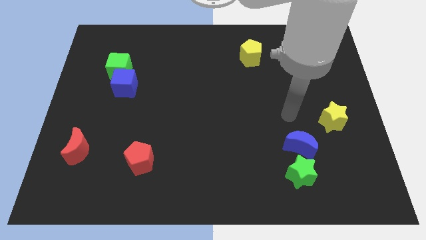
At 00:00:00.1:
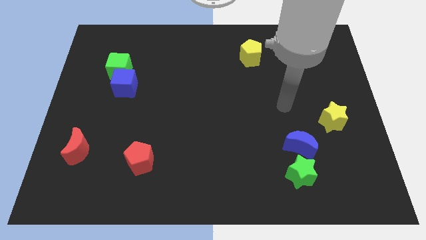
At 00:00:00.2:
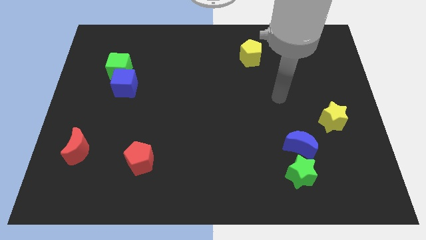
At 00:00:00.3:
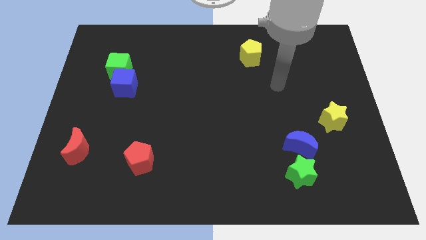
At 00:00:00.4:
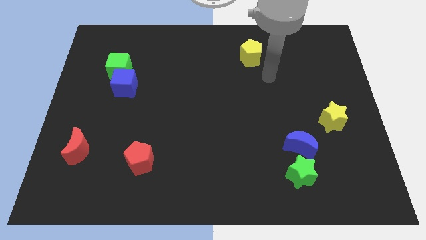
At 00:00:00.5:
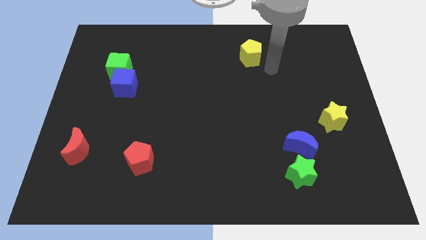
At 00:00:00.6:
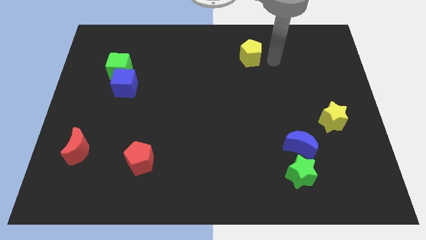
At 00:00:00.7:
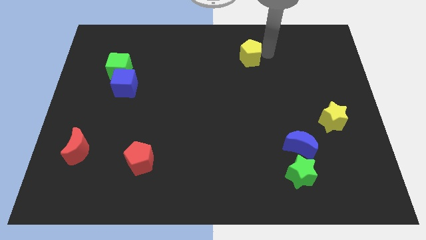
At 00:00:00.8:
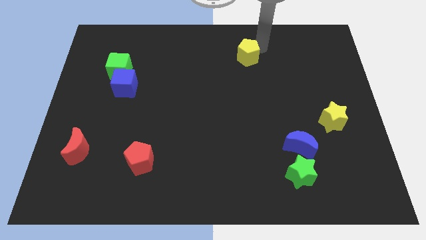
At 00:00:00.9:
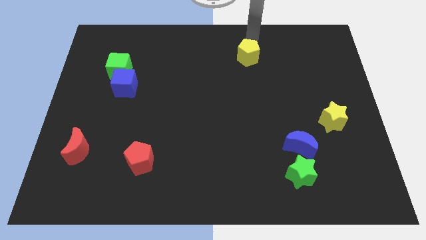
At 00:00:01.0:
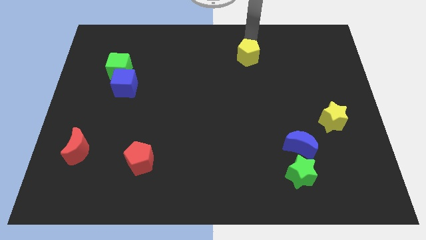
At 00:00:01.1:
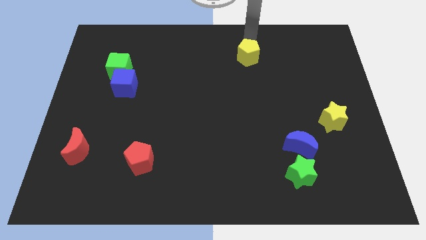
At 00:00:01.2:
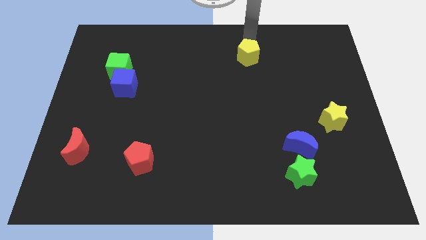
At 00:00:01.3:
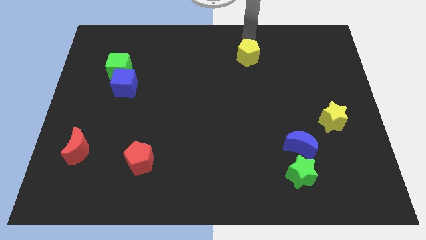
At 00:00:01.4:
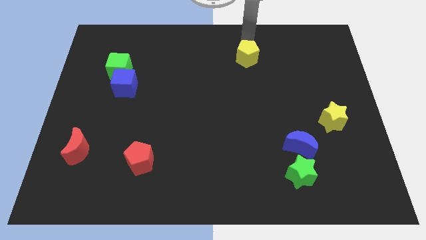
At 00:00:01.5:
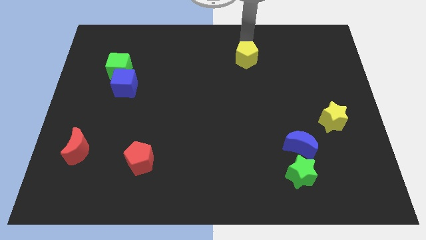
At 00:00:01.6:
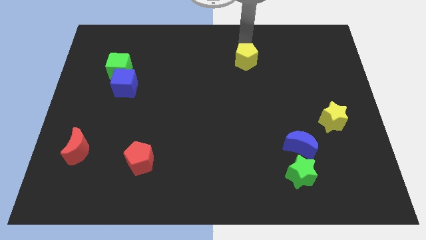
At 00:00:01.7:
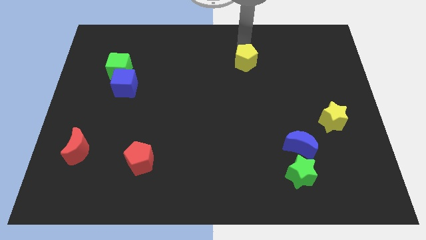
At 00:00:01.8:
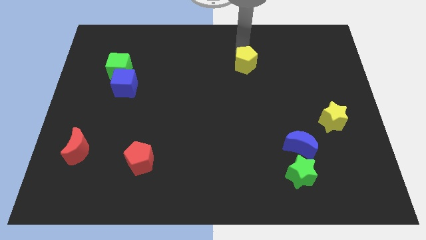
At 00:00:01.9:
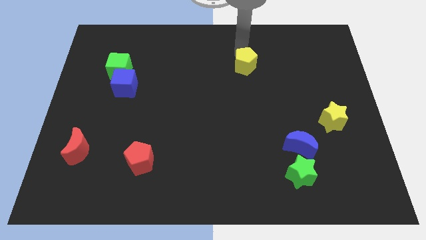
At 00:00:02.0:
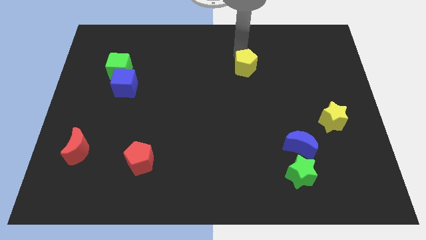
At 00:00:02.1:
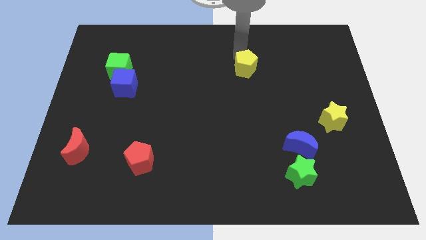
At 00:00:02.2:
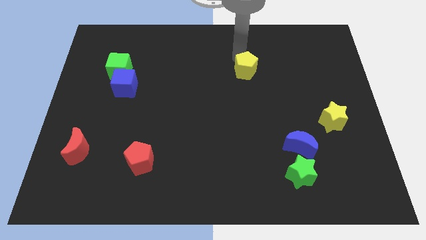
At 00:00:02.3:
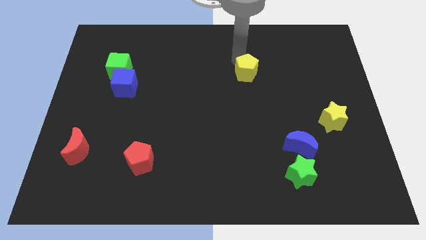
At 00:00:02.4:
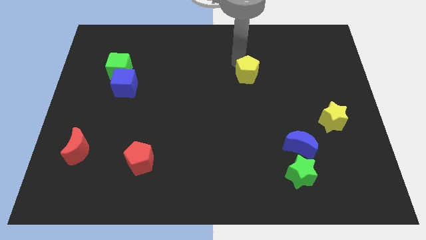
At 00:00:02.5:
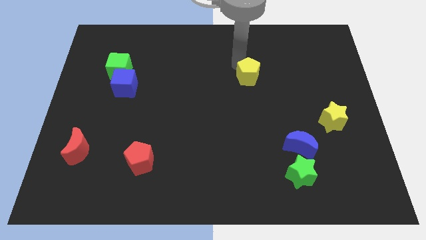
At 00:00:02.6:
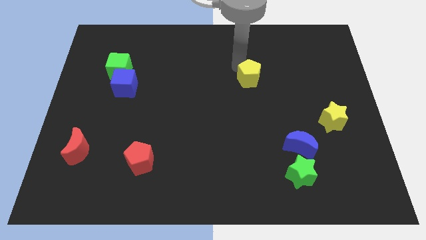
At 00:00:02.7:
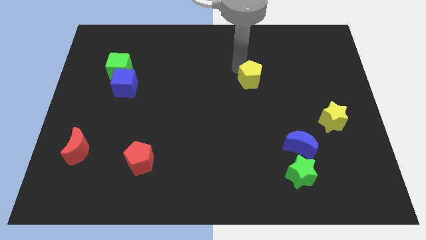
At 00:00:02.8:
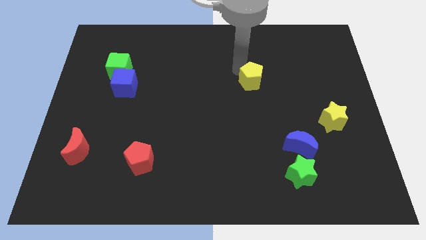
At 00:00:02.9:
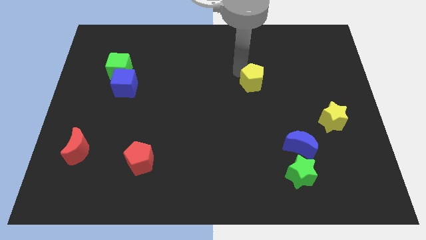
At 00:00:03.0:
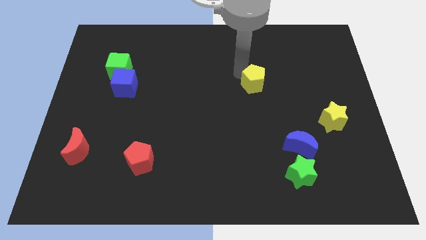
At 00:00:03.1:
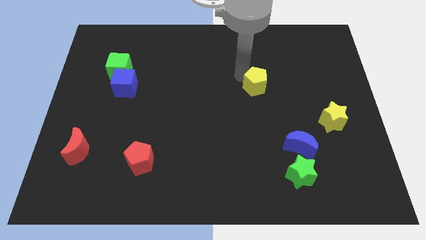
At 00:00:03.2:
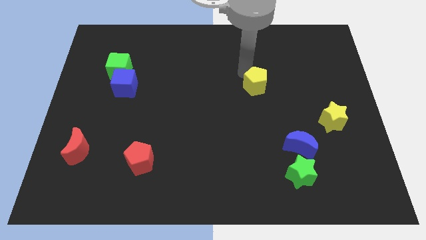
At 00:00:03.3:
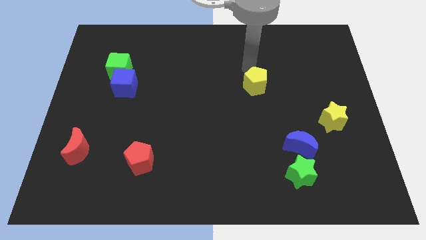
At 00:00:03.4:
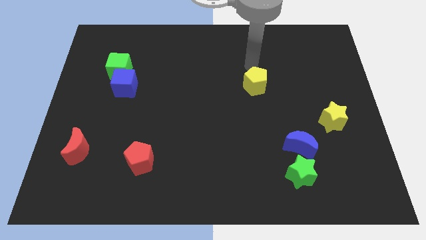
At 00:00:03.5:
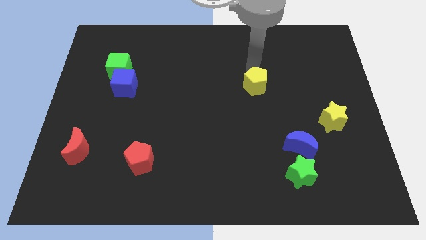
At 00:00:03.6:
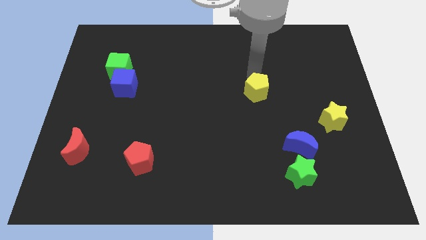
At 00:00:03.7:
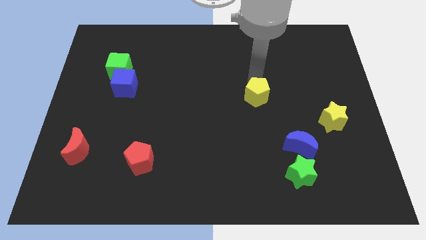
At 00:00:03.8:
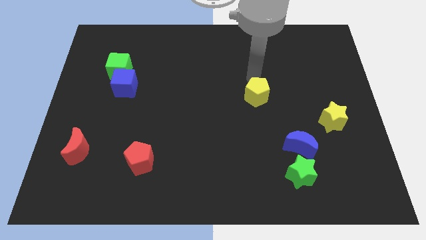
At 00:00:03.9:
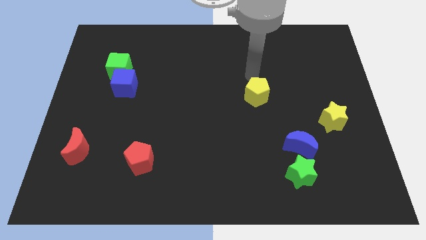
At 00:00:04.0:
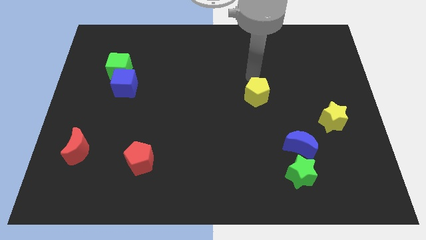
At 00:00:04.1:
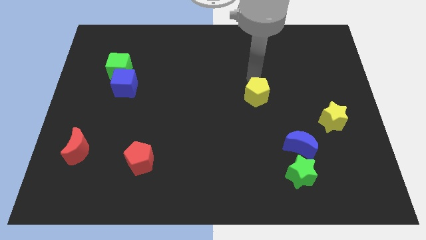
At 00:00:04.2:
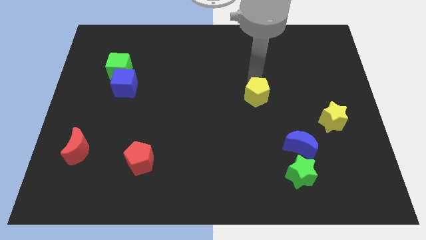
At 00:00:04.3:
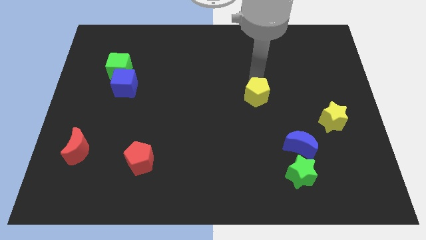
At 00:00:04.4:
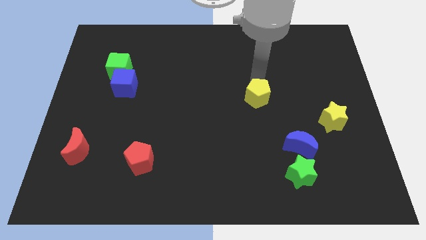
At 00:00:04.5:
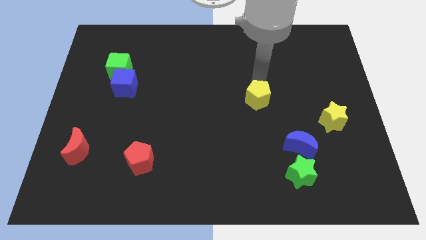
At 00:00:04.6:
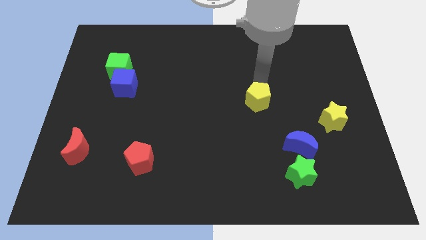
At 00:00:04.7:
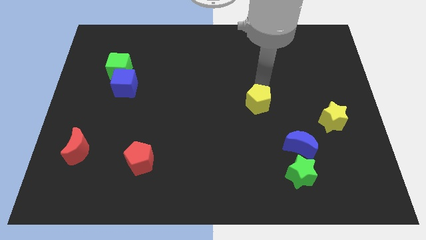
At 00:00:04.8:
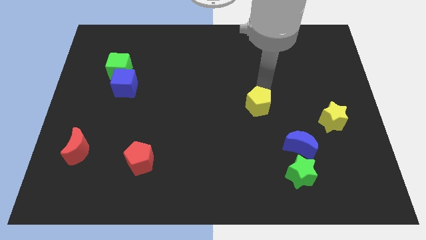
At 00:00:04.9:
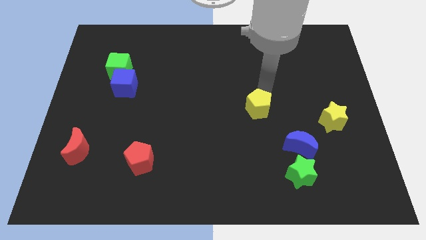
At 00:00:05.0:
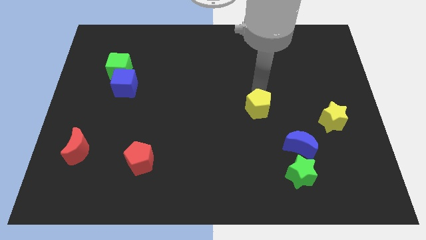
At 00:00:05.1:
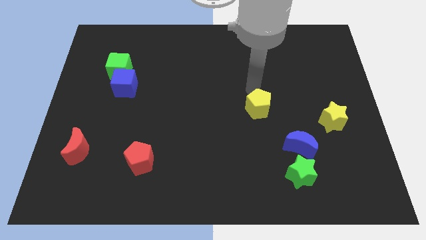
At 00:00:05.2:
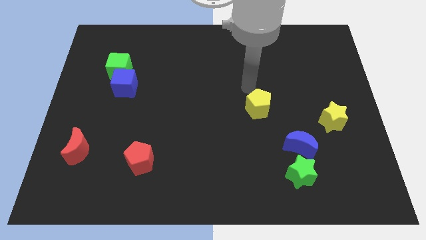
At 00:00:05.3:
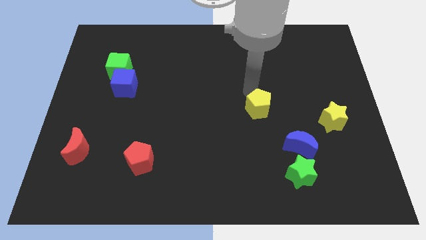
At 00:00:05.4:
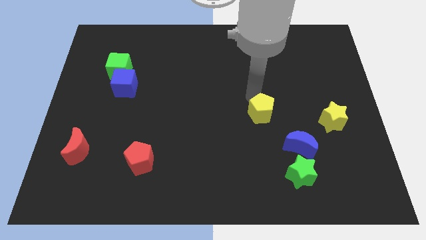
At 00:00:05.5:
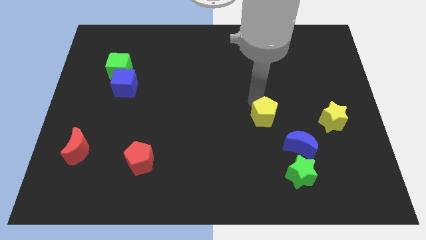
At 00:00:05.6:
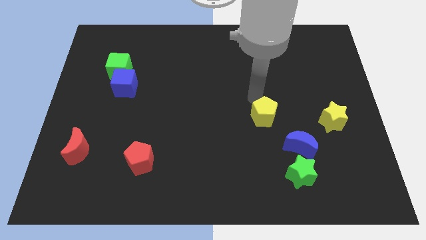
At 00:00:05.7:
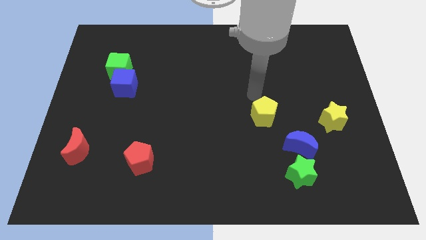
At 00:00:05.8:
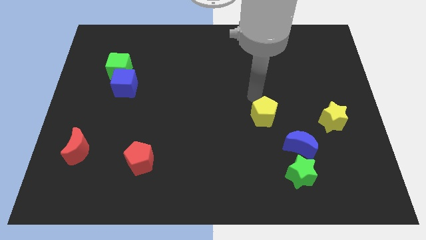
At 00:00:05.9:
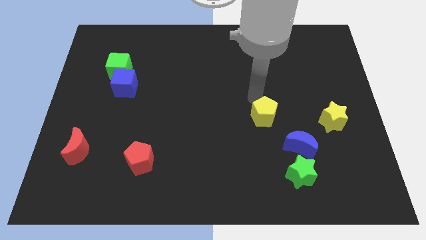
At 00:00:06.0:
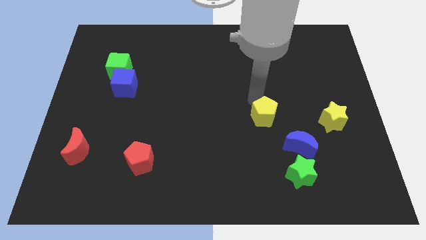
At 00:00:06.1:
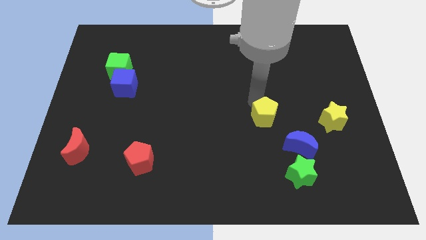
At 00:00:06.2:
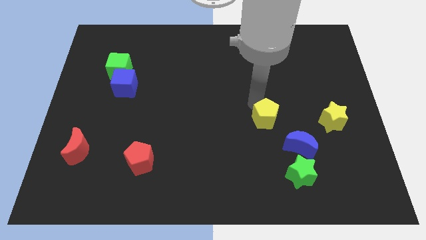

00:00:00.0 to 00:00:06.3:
push the yellow pentagon downwards

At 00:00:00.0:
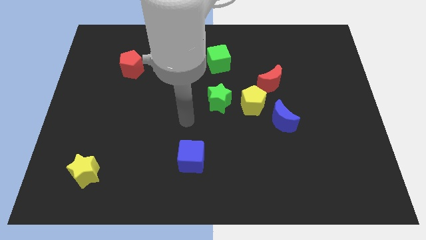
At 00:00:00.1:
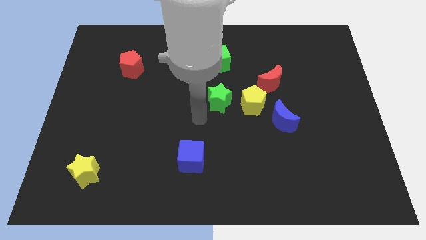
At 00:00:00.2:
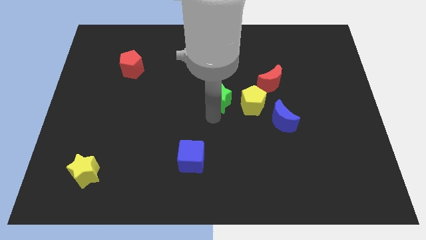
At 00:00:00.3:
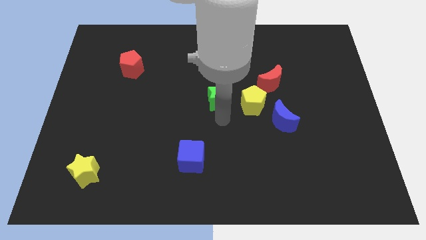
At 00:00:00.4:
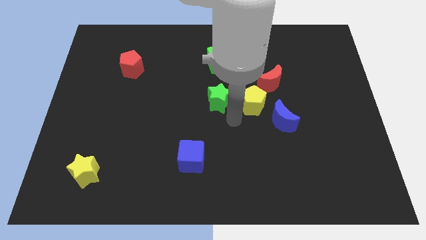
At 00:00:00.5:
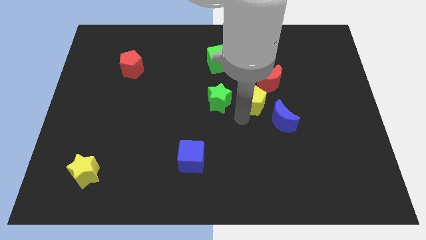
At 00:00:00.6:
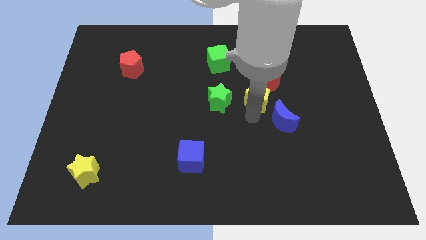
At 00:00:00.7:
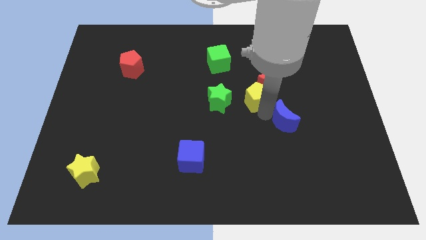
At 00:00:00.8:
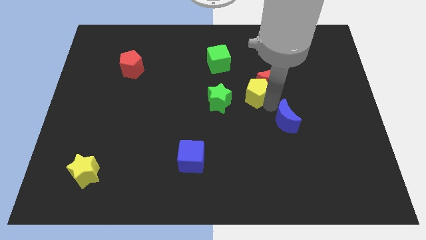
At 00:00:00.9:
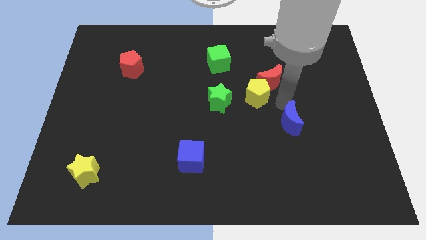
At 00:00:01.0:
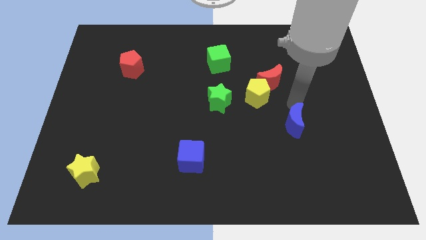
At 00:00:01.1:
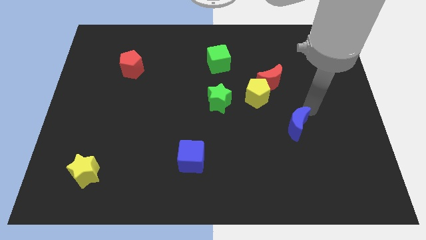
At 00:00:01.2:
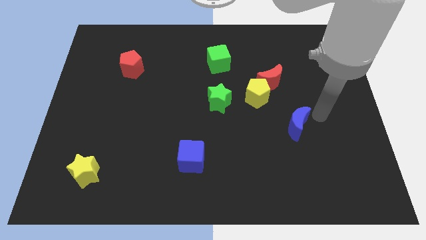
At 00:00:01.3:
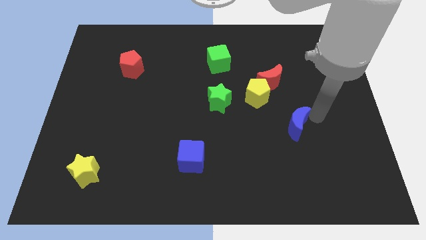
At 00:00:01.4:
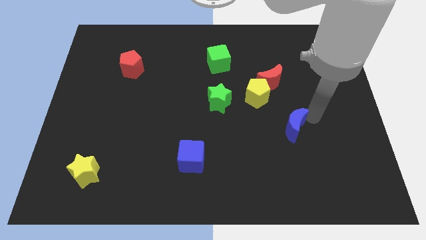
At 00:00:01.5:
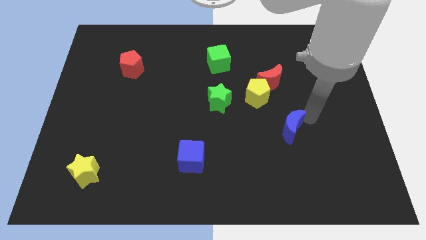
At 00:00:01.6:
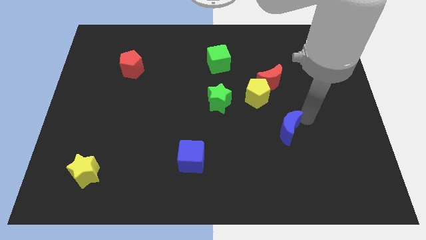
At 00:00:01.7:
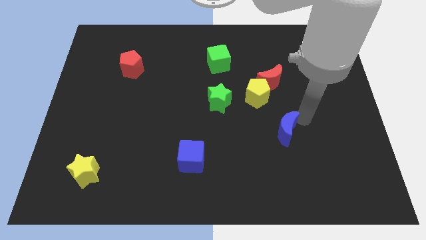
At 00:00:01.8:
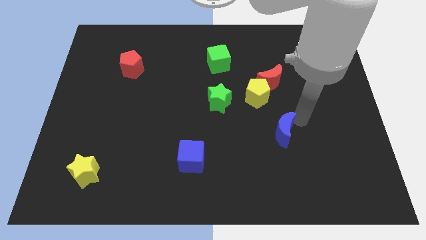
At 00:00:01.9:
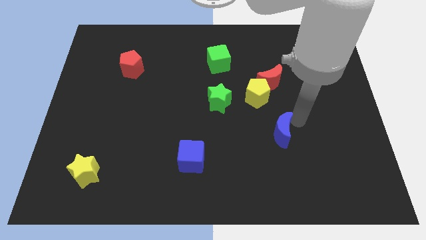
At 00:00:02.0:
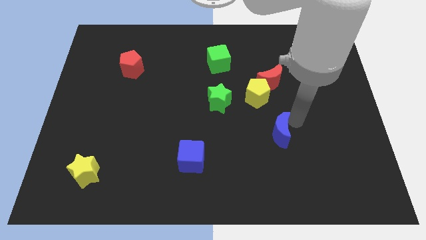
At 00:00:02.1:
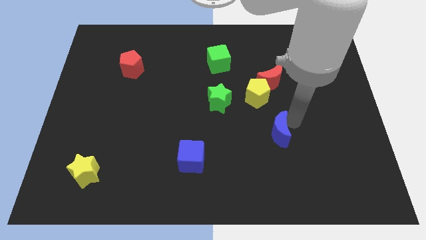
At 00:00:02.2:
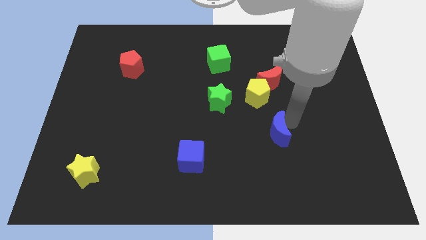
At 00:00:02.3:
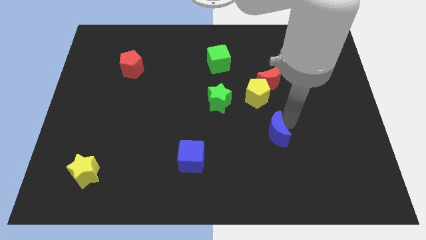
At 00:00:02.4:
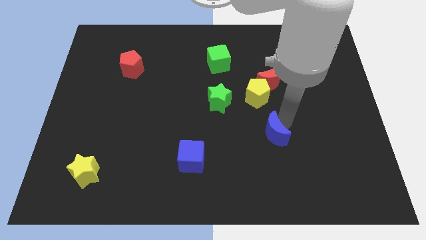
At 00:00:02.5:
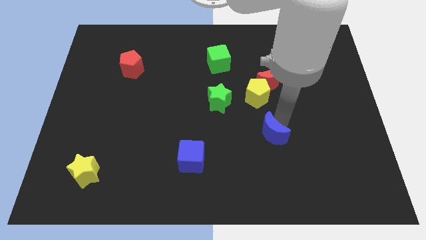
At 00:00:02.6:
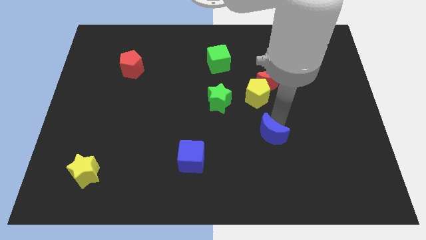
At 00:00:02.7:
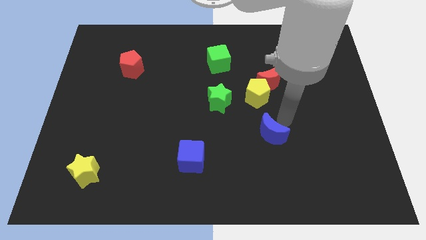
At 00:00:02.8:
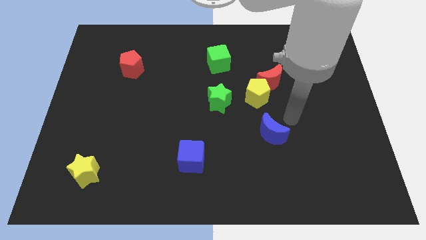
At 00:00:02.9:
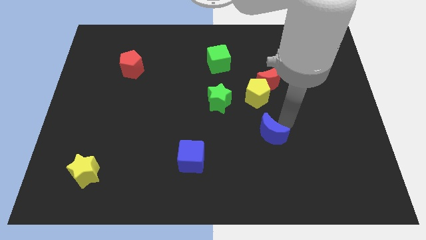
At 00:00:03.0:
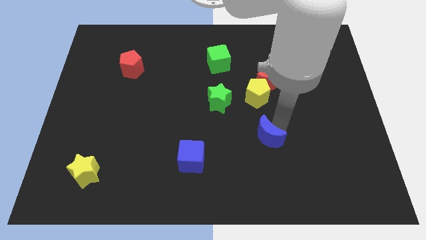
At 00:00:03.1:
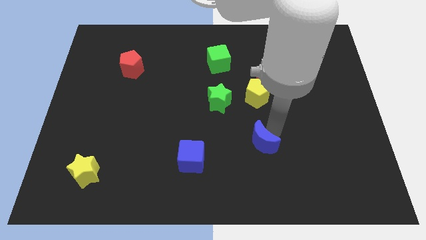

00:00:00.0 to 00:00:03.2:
move the blue moon diagonally down and to the left a bit
